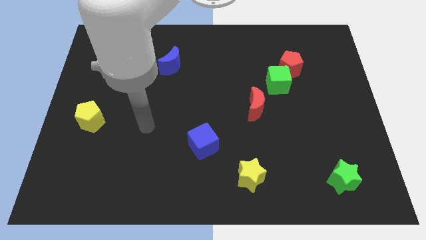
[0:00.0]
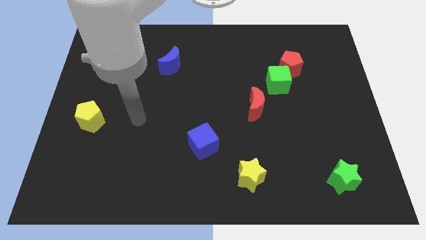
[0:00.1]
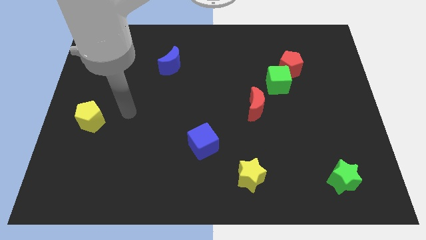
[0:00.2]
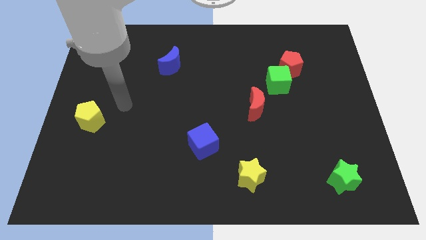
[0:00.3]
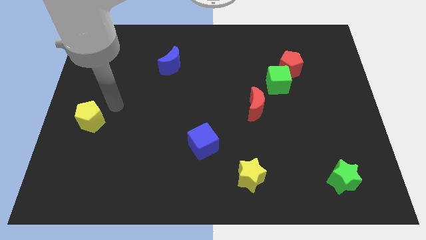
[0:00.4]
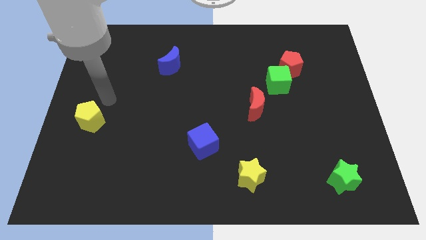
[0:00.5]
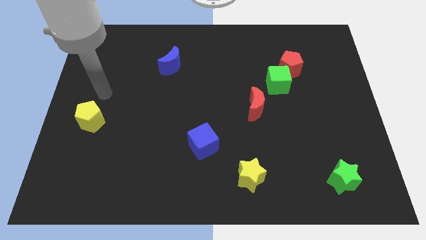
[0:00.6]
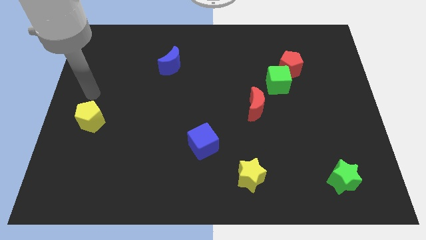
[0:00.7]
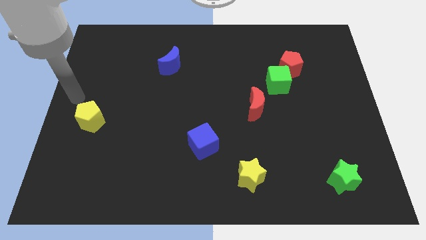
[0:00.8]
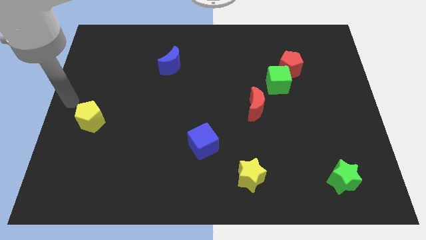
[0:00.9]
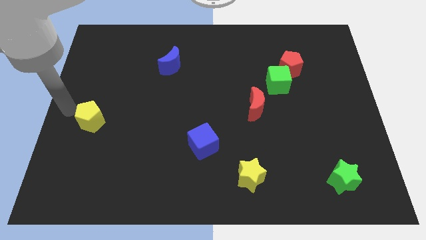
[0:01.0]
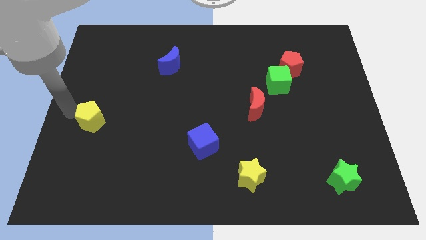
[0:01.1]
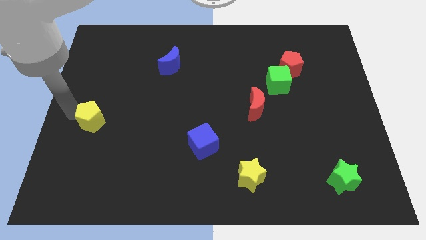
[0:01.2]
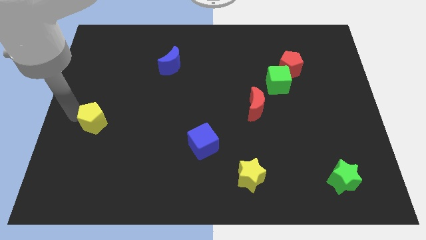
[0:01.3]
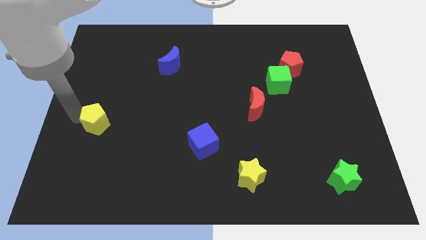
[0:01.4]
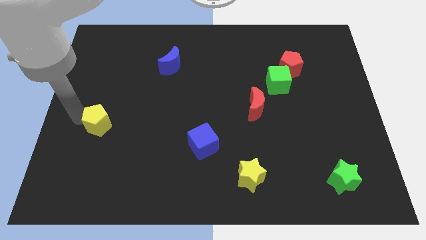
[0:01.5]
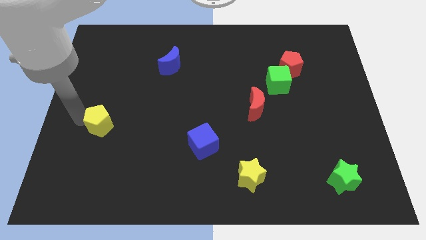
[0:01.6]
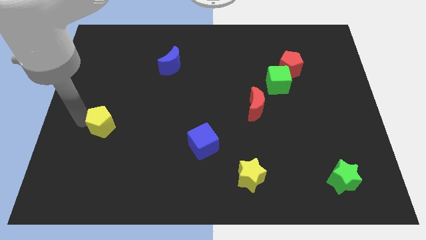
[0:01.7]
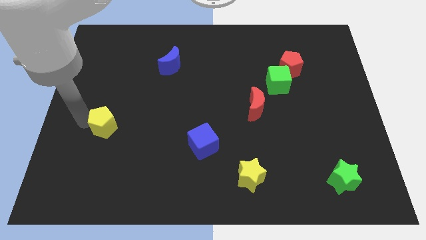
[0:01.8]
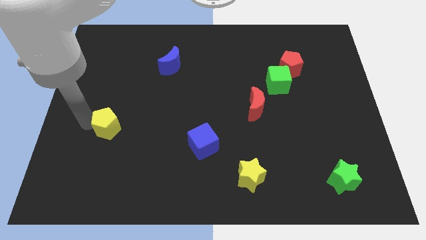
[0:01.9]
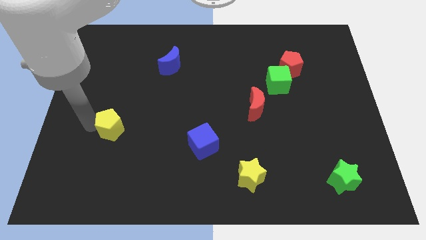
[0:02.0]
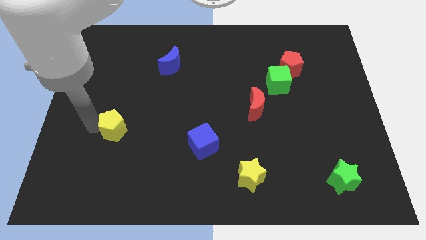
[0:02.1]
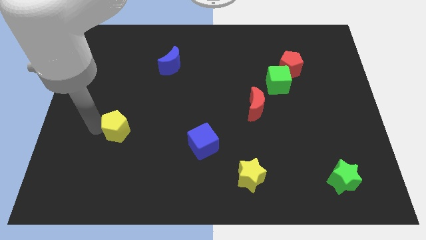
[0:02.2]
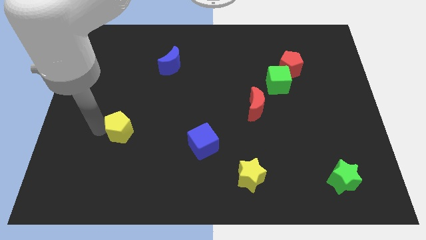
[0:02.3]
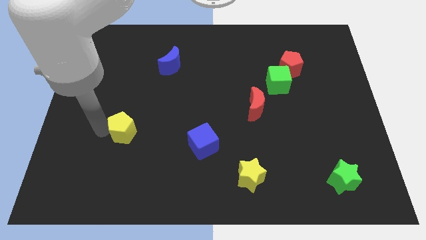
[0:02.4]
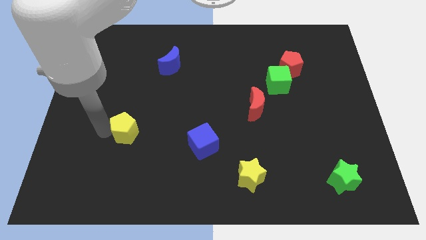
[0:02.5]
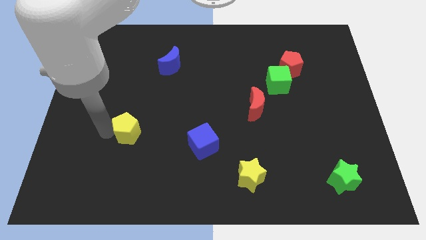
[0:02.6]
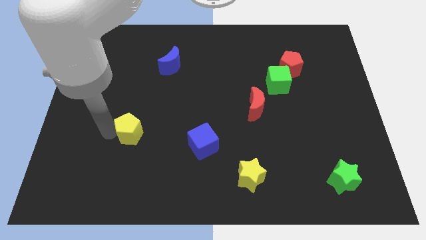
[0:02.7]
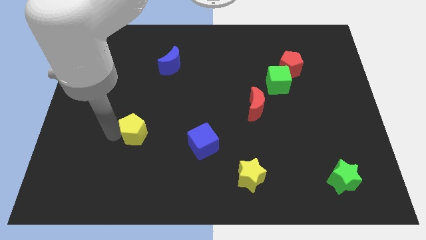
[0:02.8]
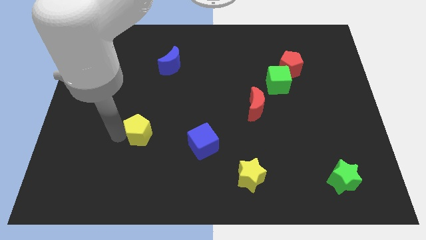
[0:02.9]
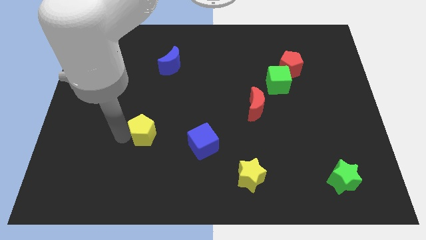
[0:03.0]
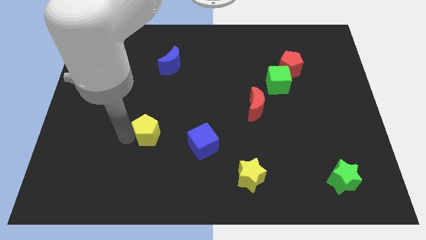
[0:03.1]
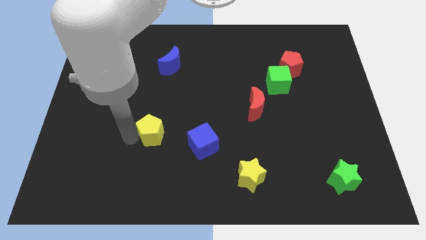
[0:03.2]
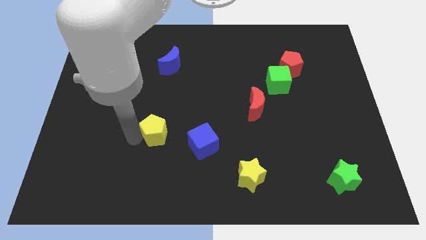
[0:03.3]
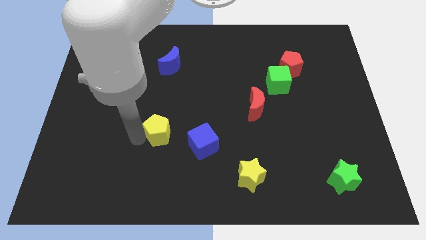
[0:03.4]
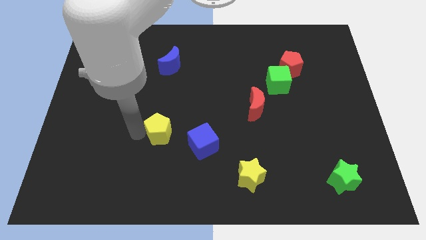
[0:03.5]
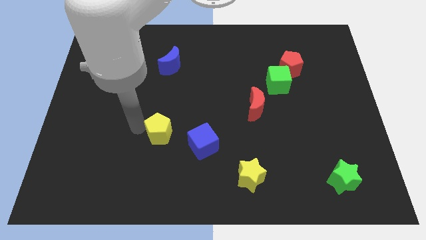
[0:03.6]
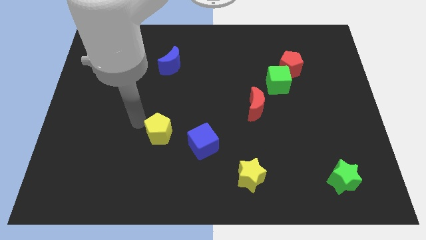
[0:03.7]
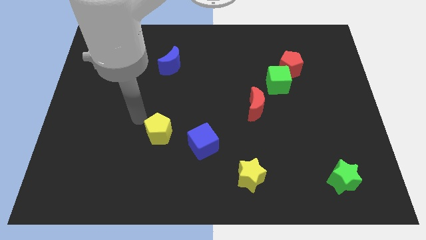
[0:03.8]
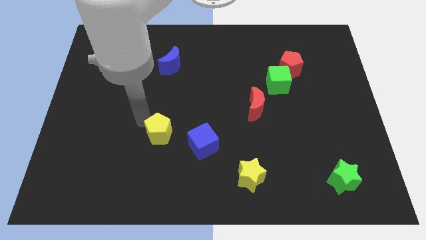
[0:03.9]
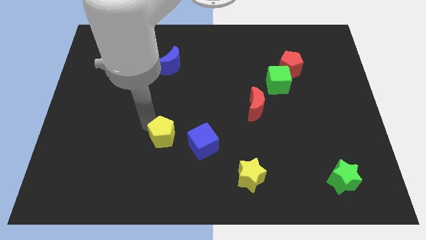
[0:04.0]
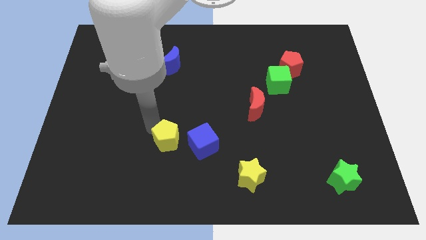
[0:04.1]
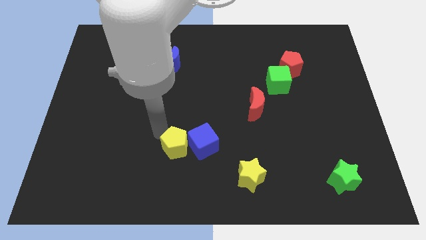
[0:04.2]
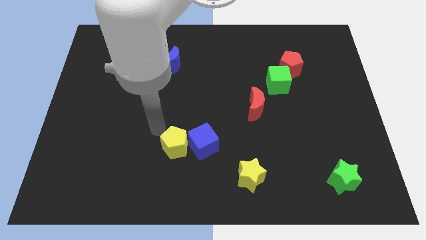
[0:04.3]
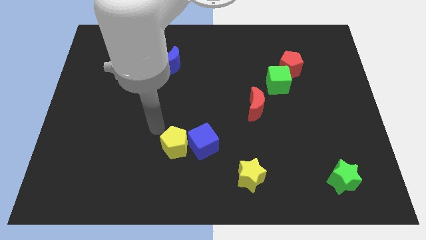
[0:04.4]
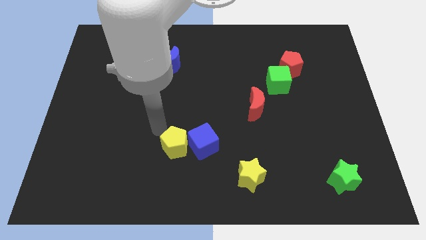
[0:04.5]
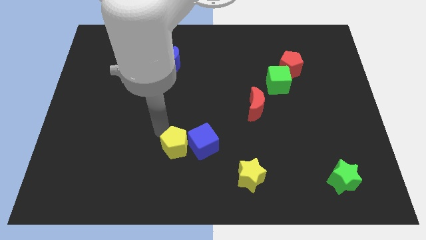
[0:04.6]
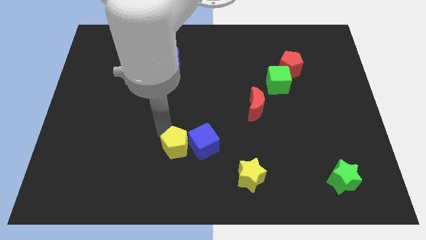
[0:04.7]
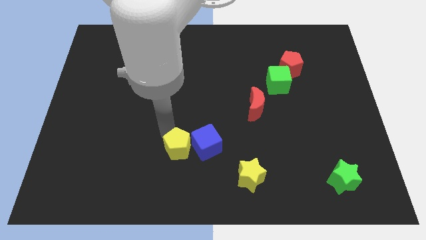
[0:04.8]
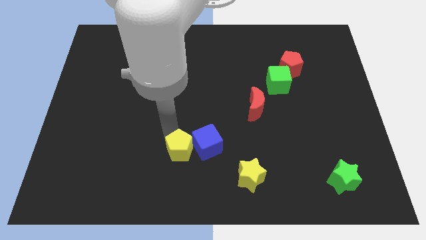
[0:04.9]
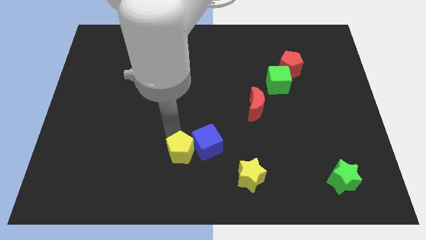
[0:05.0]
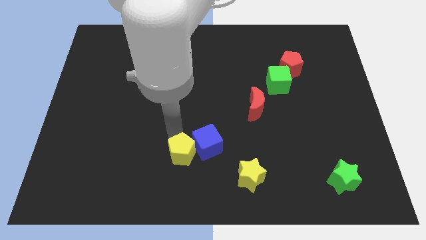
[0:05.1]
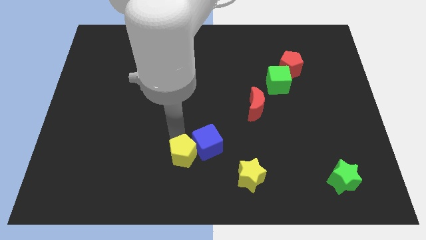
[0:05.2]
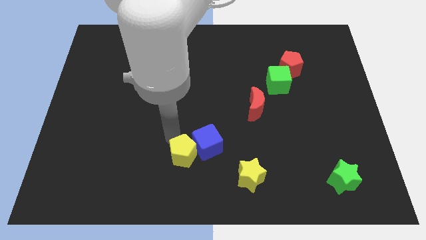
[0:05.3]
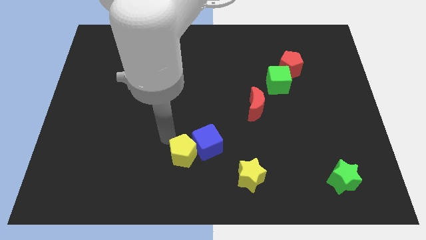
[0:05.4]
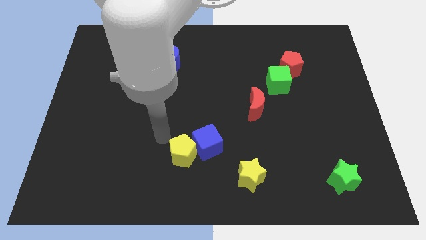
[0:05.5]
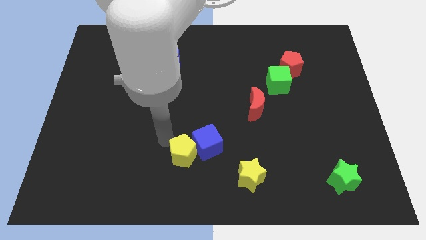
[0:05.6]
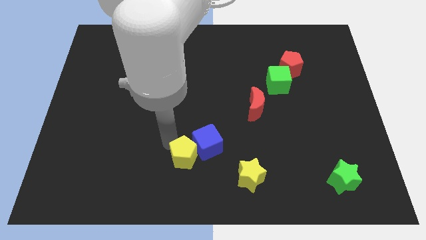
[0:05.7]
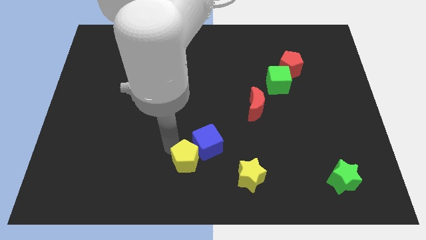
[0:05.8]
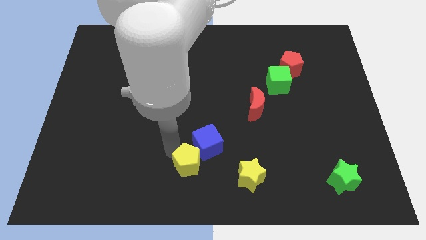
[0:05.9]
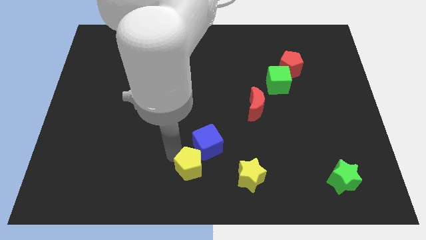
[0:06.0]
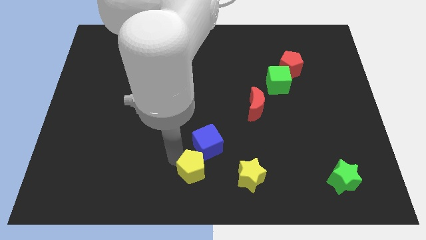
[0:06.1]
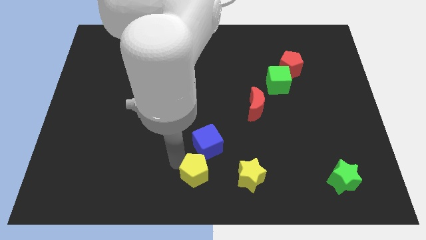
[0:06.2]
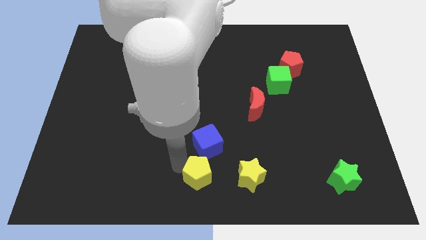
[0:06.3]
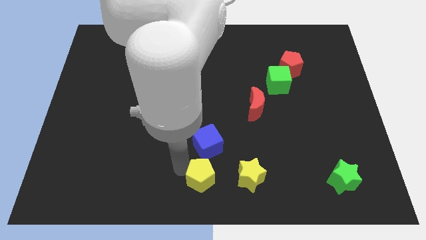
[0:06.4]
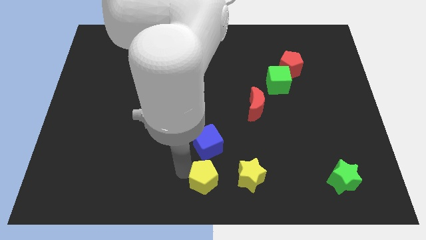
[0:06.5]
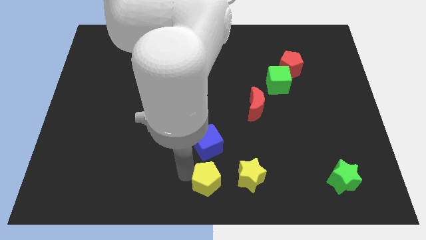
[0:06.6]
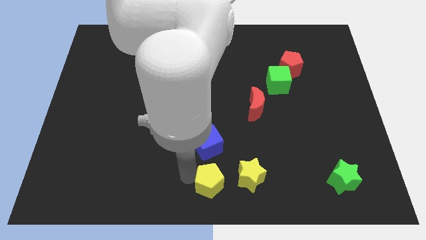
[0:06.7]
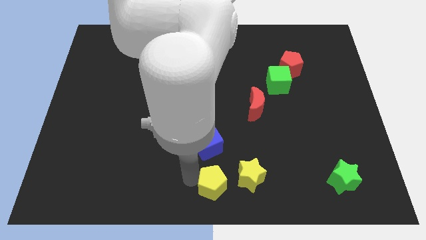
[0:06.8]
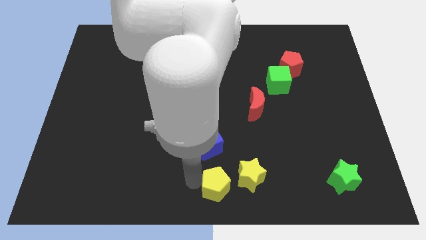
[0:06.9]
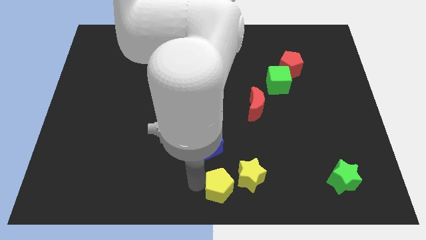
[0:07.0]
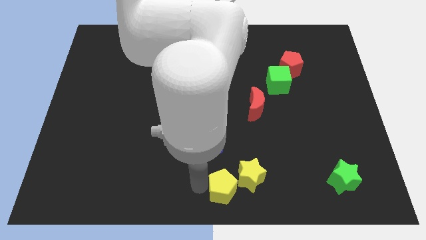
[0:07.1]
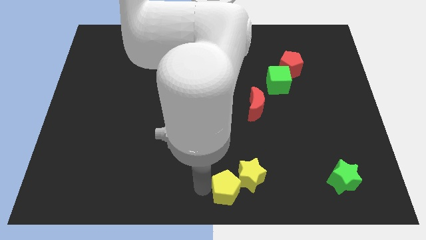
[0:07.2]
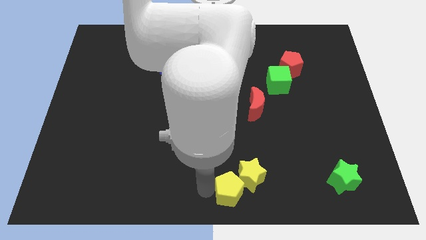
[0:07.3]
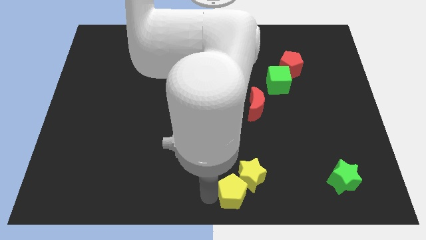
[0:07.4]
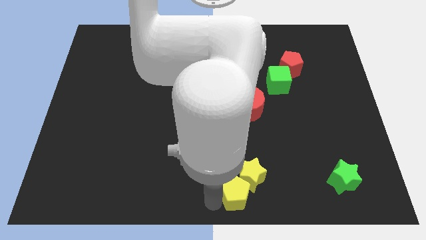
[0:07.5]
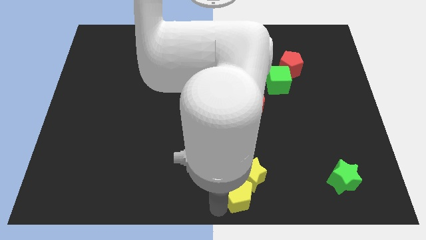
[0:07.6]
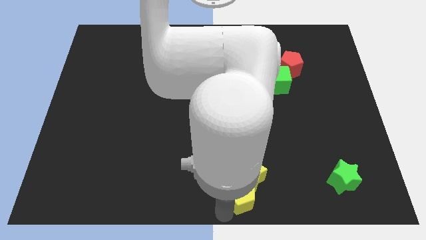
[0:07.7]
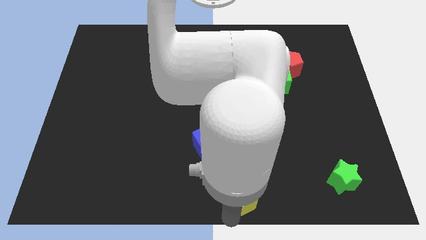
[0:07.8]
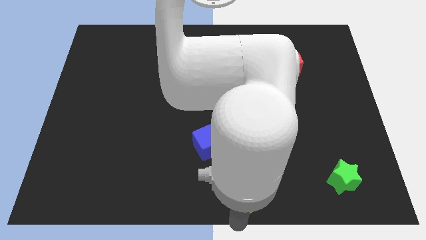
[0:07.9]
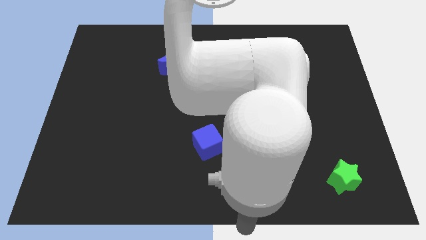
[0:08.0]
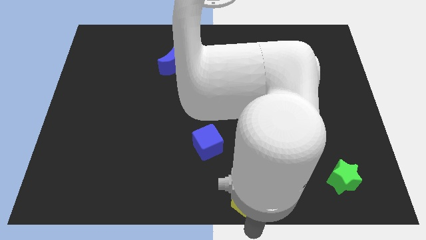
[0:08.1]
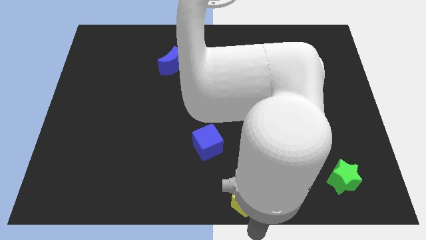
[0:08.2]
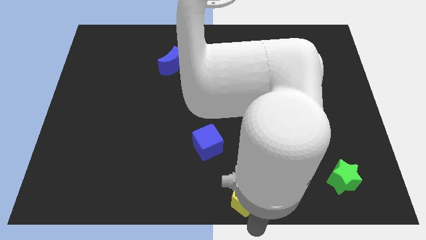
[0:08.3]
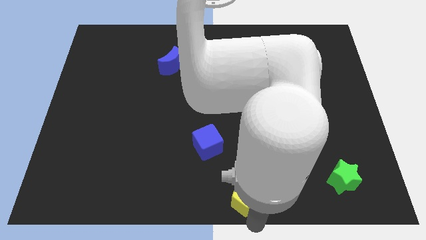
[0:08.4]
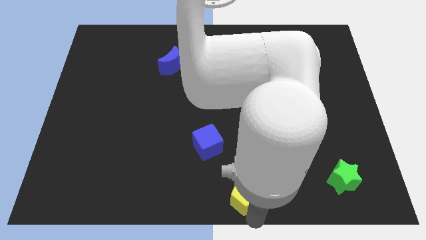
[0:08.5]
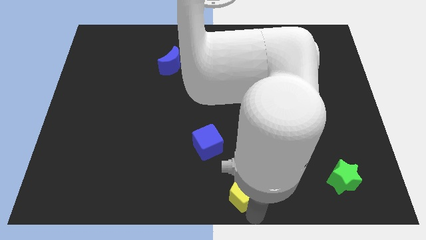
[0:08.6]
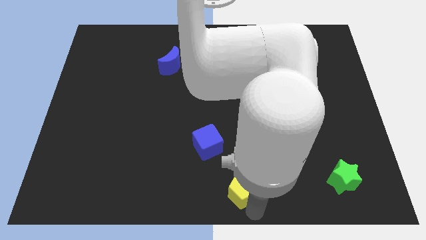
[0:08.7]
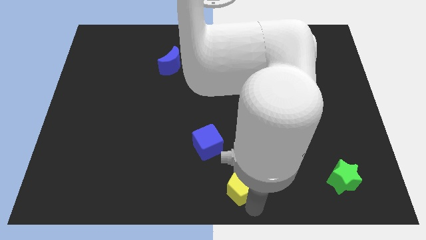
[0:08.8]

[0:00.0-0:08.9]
move the yellow pentagon to the bottom right side of the blue cube
